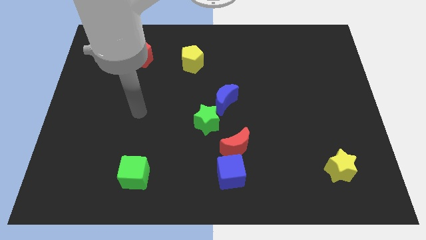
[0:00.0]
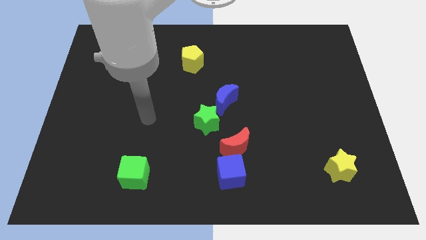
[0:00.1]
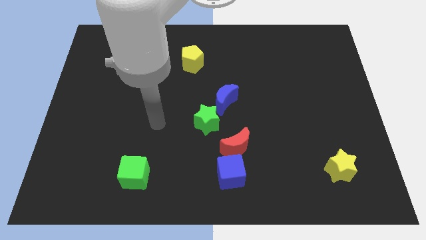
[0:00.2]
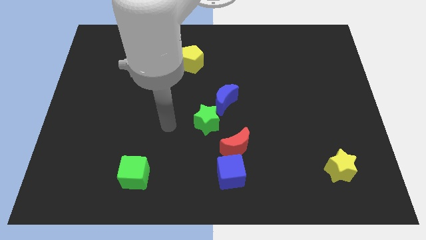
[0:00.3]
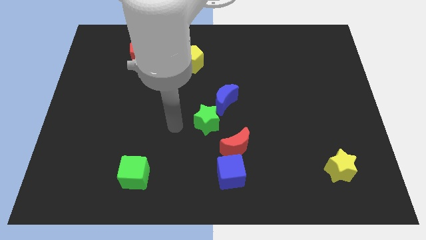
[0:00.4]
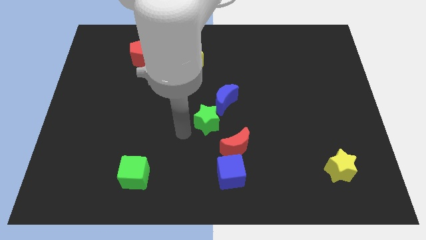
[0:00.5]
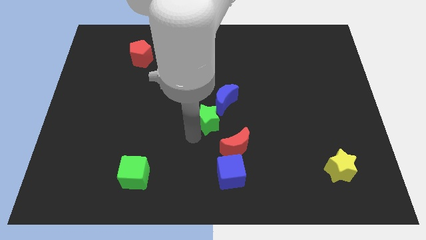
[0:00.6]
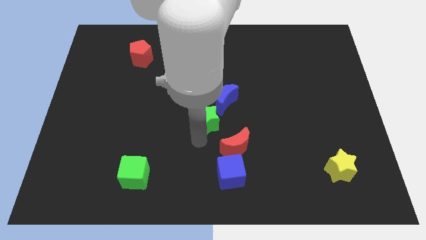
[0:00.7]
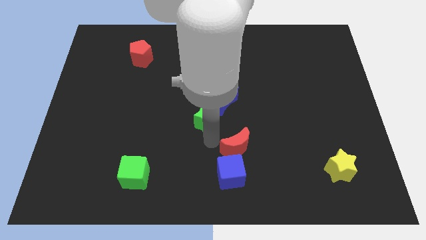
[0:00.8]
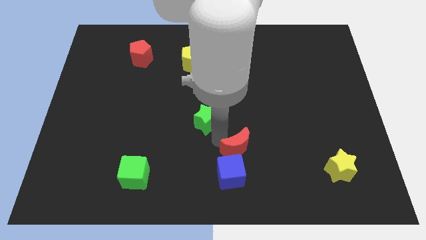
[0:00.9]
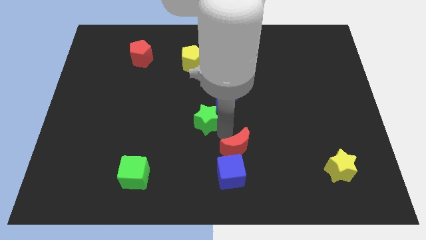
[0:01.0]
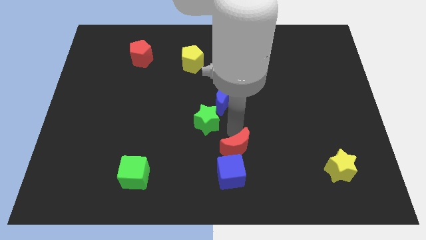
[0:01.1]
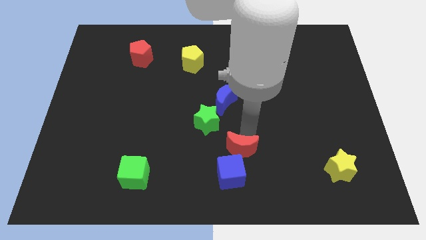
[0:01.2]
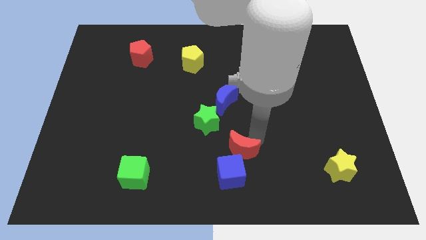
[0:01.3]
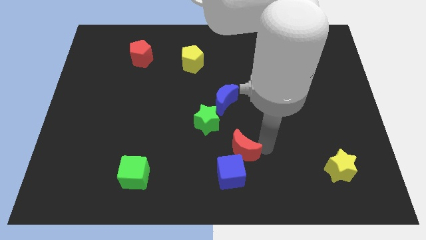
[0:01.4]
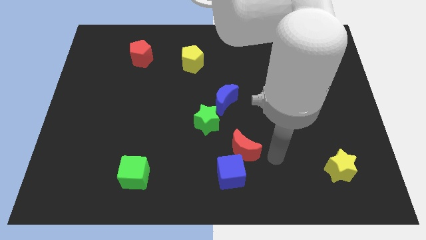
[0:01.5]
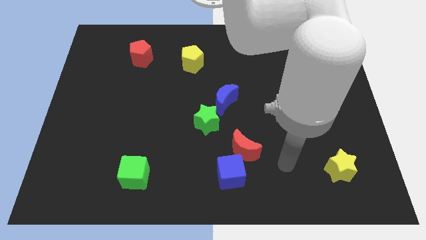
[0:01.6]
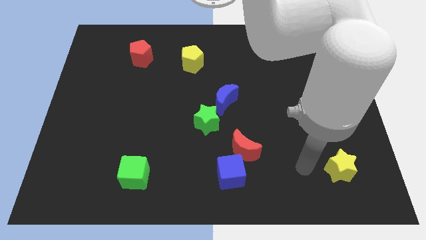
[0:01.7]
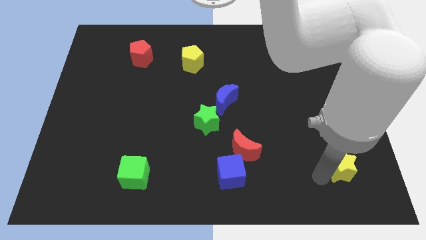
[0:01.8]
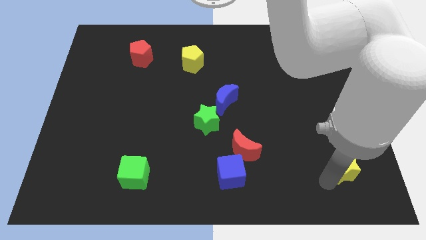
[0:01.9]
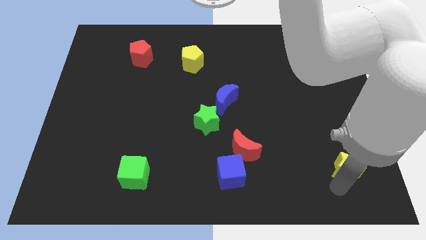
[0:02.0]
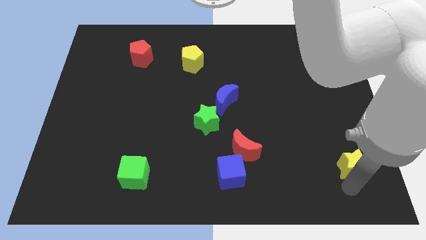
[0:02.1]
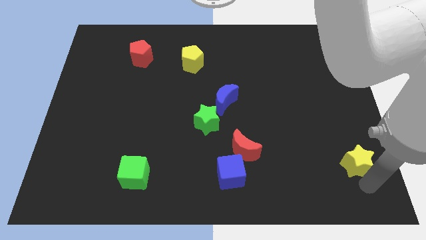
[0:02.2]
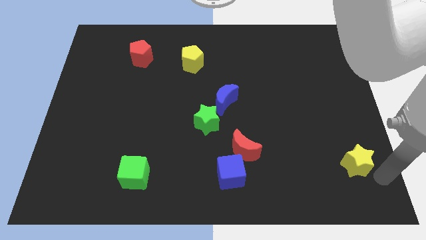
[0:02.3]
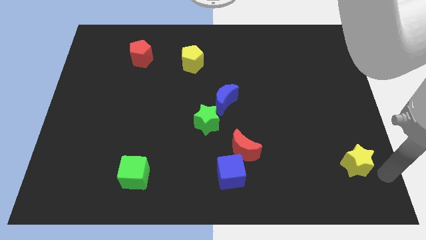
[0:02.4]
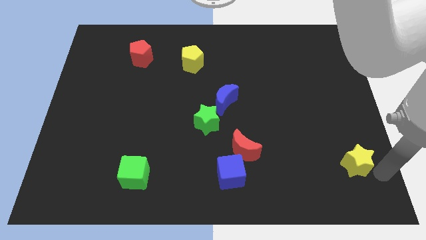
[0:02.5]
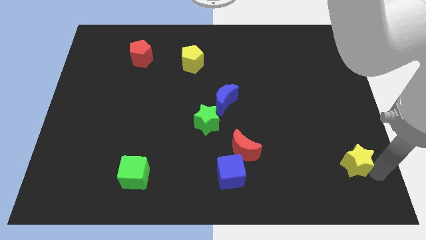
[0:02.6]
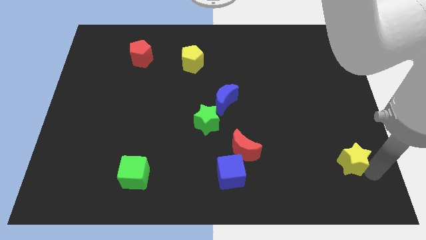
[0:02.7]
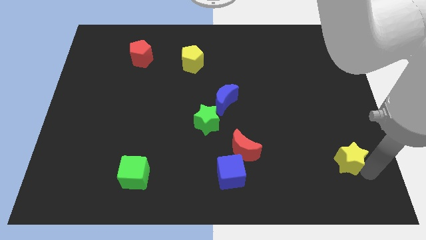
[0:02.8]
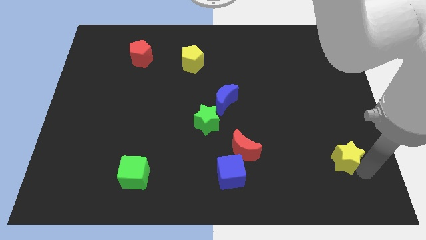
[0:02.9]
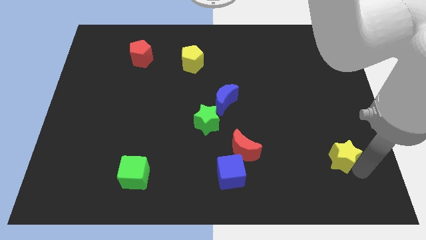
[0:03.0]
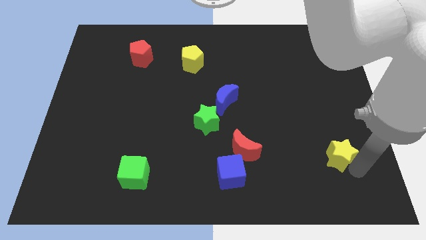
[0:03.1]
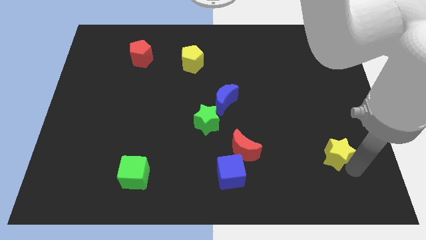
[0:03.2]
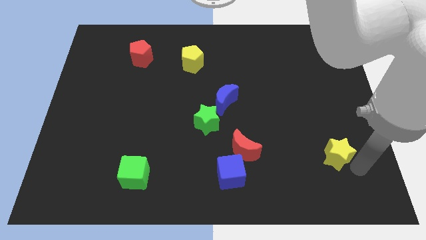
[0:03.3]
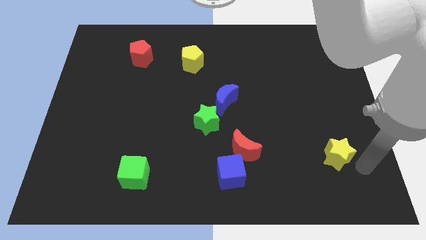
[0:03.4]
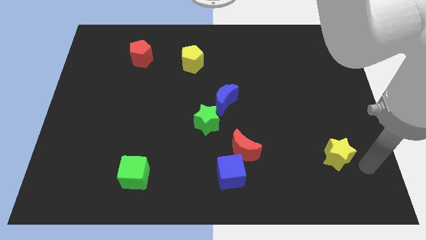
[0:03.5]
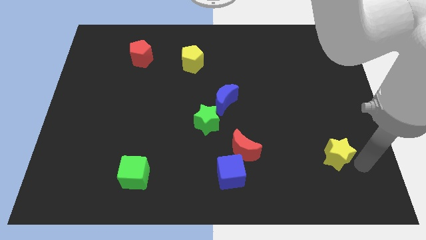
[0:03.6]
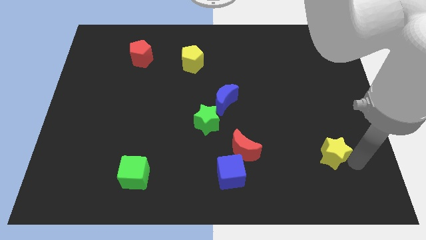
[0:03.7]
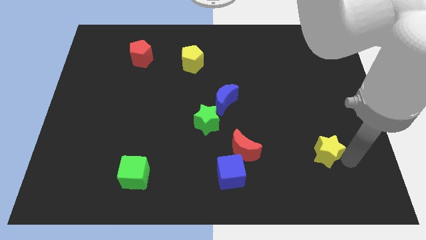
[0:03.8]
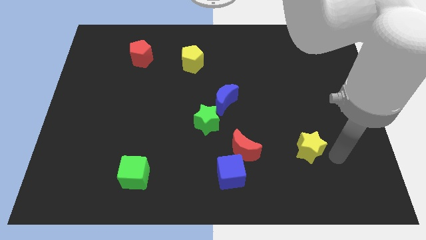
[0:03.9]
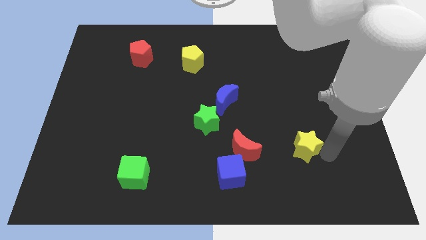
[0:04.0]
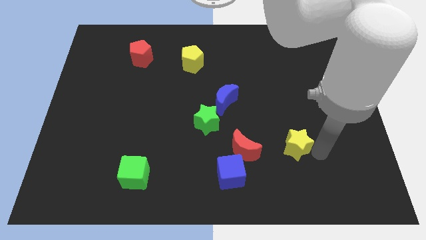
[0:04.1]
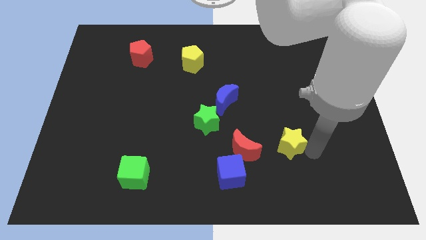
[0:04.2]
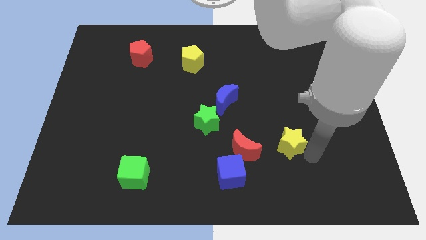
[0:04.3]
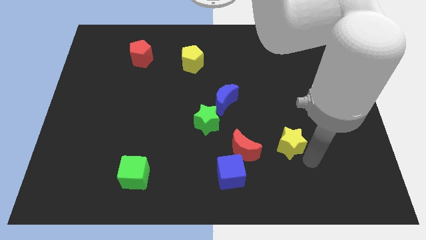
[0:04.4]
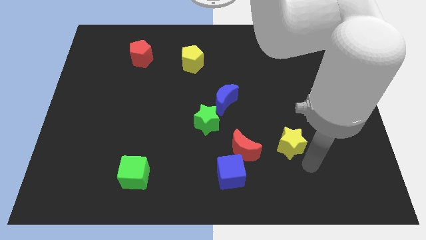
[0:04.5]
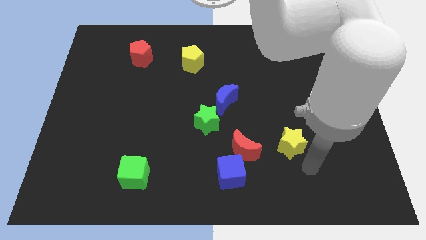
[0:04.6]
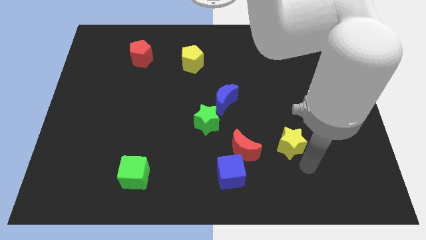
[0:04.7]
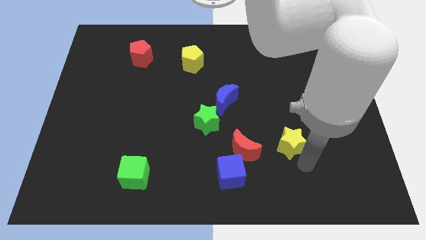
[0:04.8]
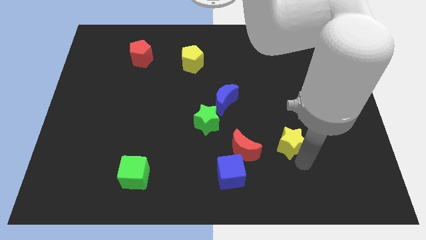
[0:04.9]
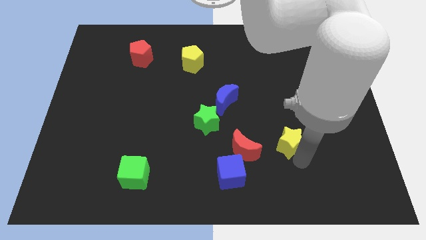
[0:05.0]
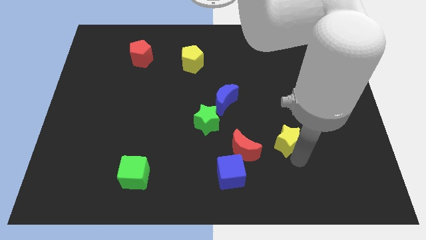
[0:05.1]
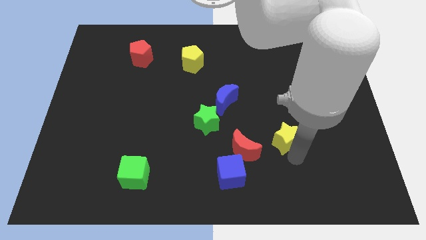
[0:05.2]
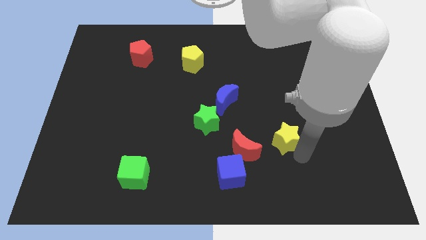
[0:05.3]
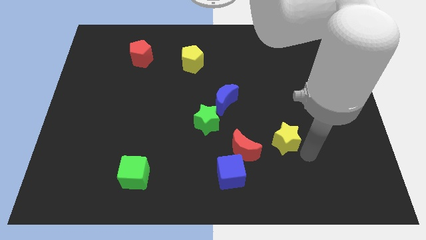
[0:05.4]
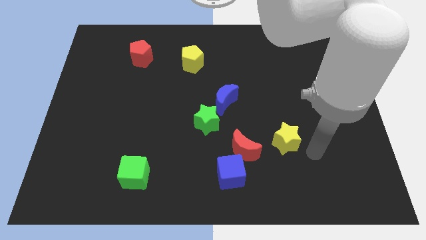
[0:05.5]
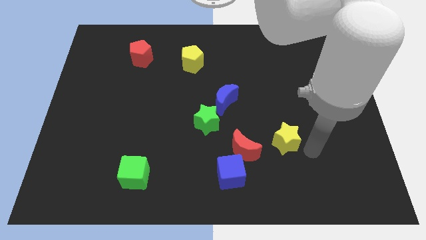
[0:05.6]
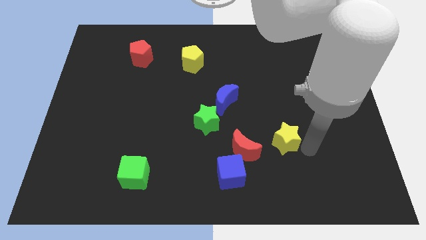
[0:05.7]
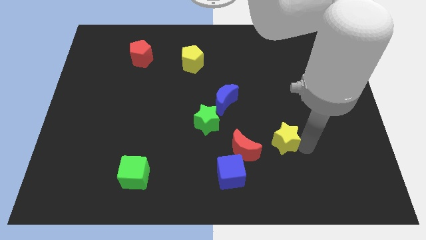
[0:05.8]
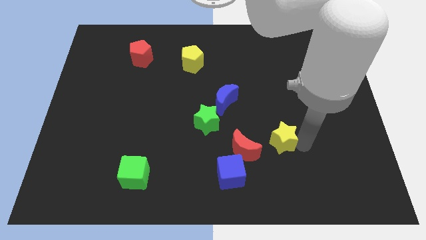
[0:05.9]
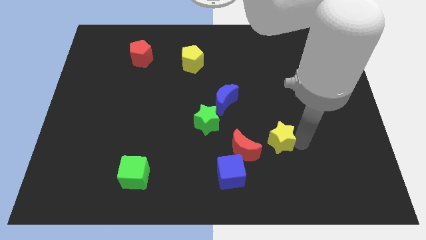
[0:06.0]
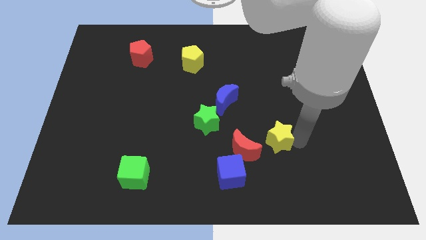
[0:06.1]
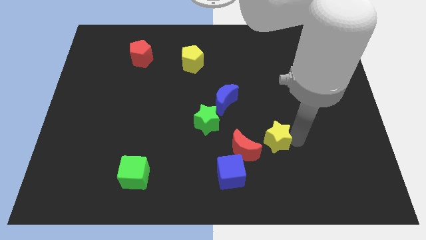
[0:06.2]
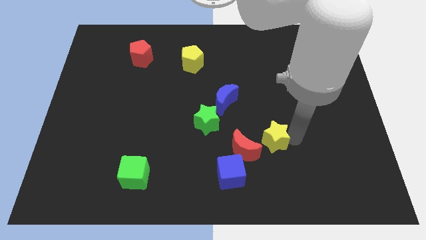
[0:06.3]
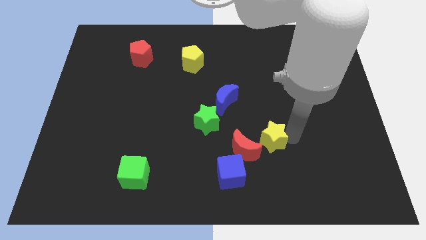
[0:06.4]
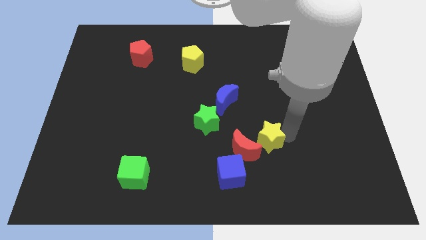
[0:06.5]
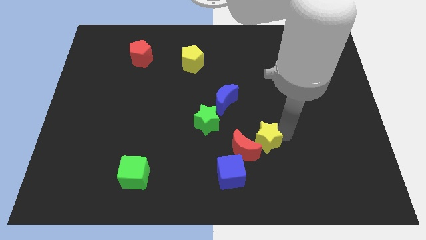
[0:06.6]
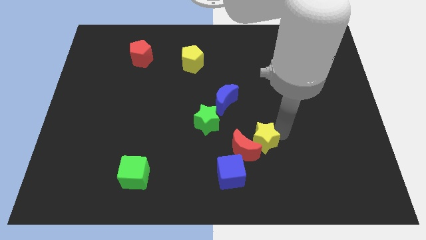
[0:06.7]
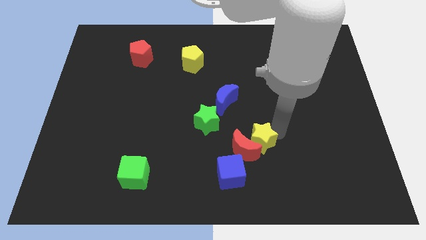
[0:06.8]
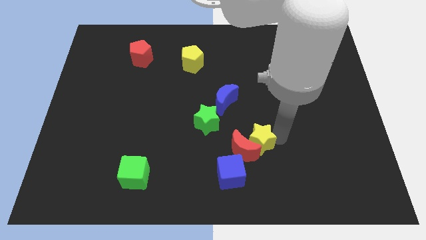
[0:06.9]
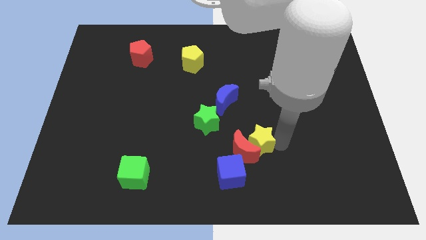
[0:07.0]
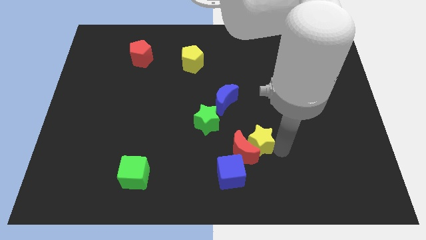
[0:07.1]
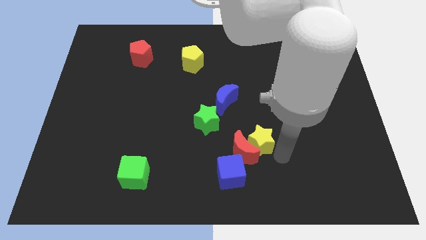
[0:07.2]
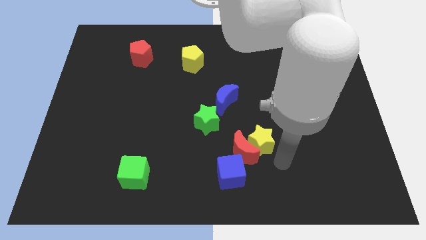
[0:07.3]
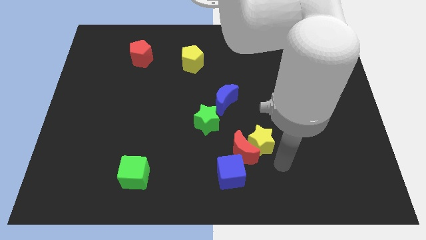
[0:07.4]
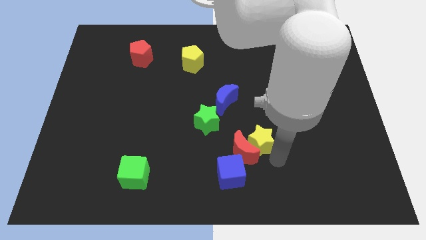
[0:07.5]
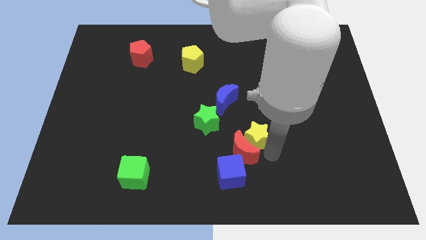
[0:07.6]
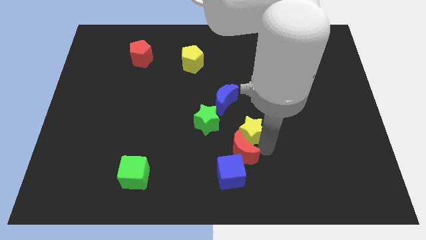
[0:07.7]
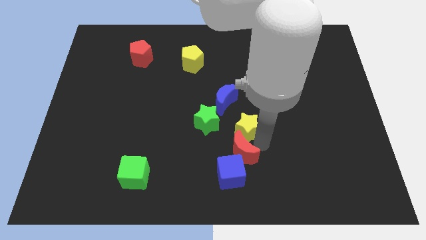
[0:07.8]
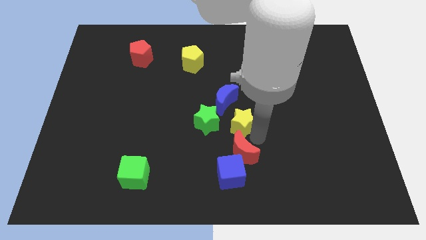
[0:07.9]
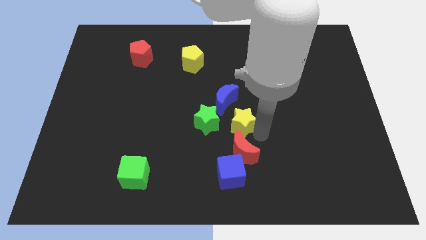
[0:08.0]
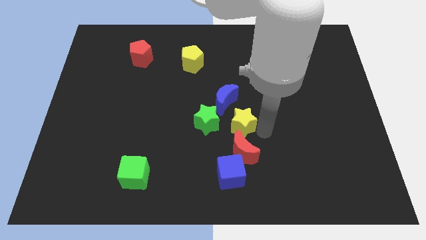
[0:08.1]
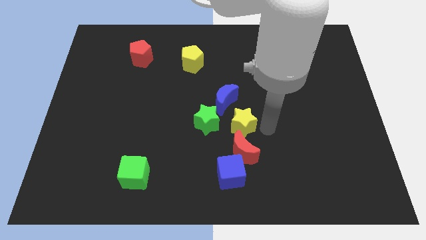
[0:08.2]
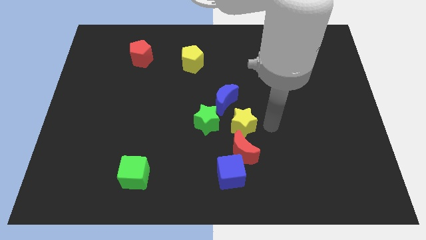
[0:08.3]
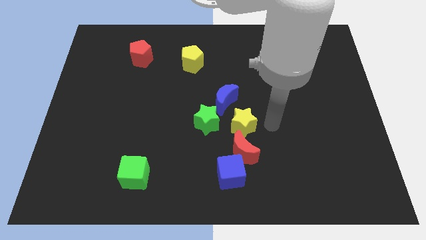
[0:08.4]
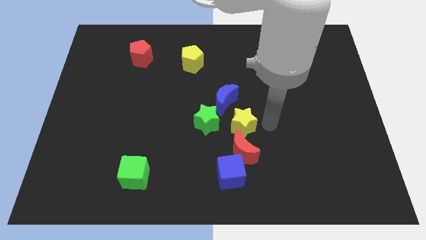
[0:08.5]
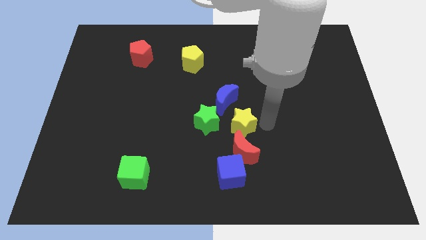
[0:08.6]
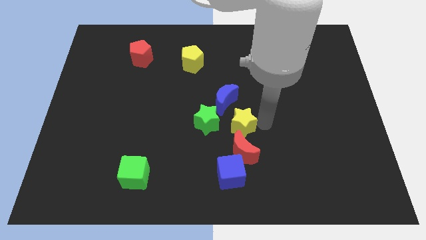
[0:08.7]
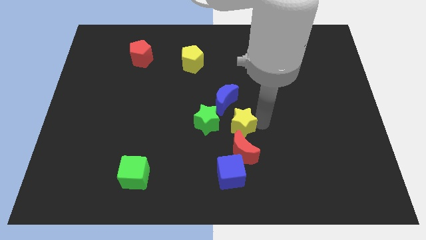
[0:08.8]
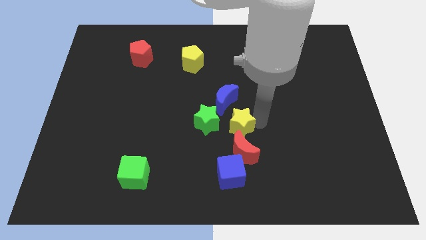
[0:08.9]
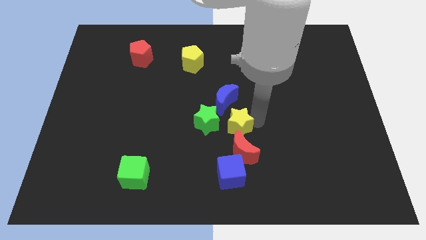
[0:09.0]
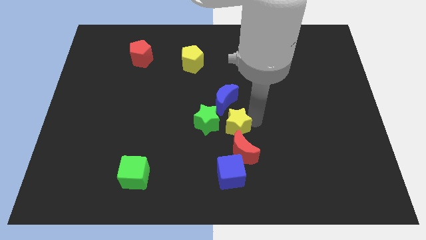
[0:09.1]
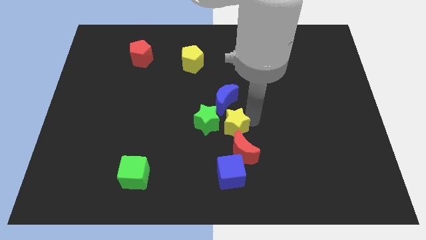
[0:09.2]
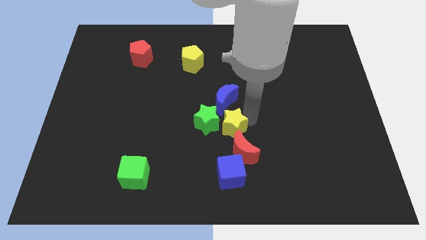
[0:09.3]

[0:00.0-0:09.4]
put the yellow star next to the green star
